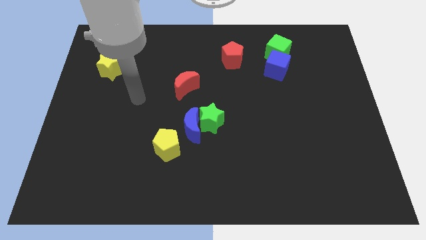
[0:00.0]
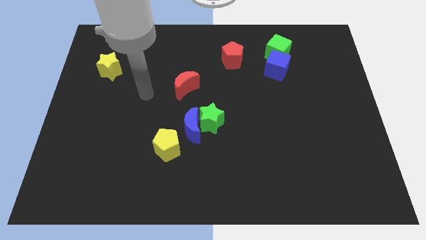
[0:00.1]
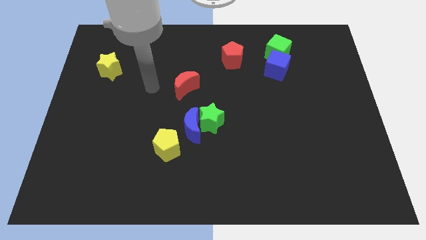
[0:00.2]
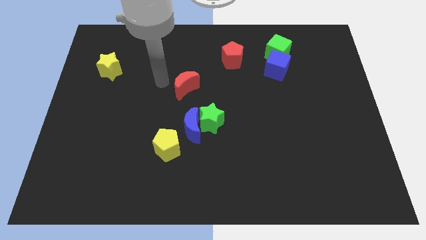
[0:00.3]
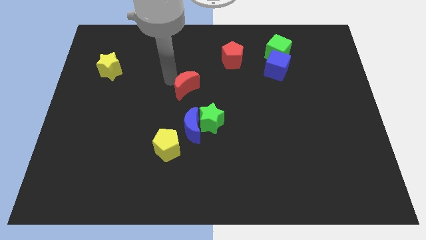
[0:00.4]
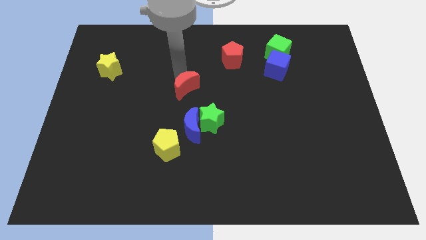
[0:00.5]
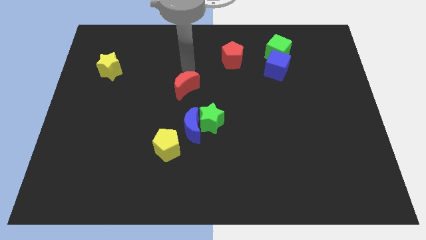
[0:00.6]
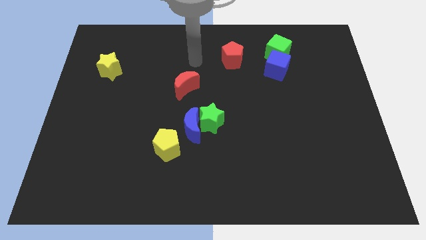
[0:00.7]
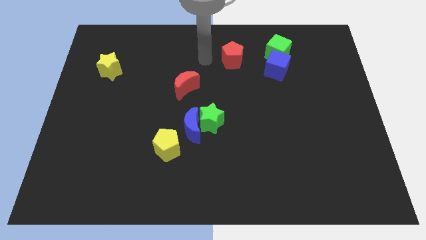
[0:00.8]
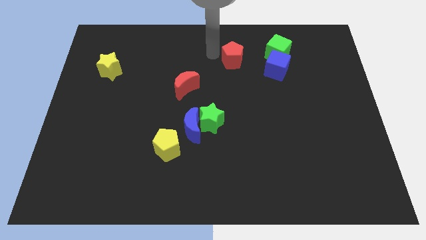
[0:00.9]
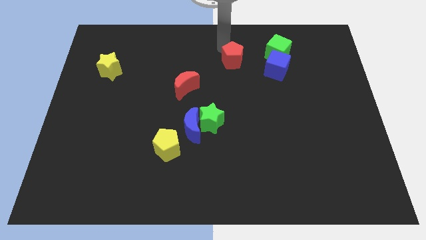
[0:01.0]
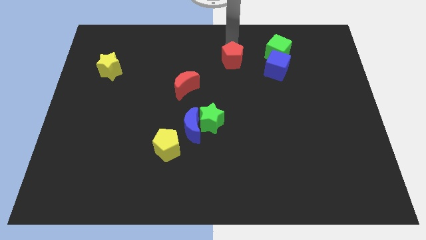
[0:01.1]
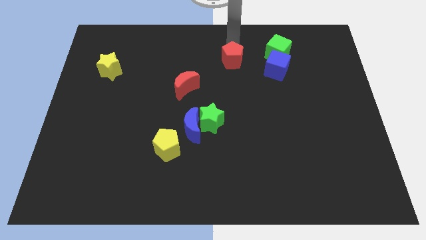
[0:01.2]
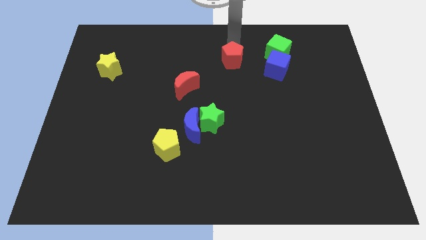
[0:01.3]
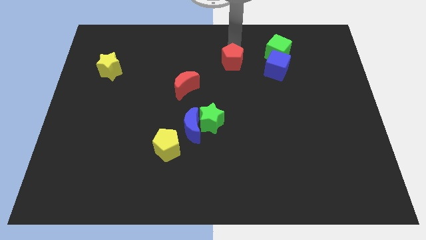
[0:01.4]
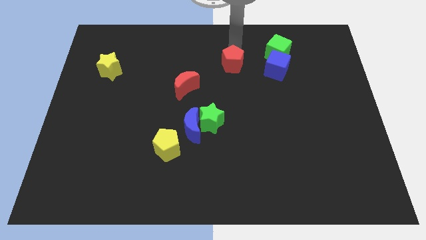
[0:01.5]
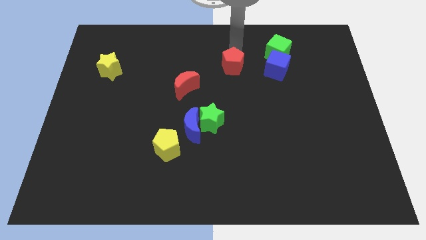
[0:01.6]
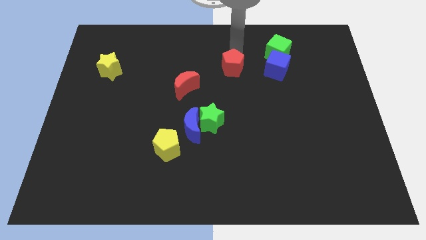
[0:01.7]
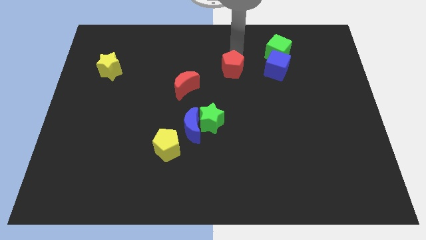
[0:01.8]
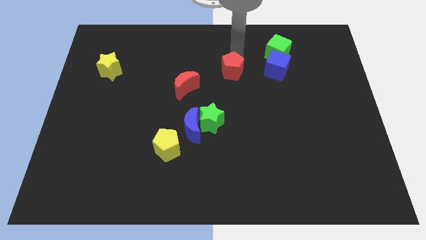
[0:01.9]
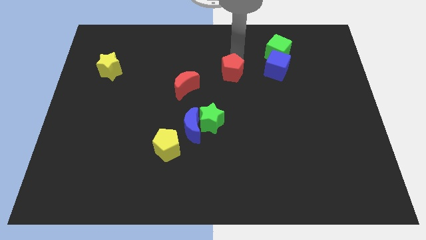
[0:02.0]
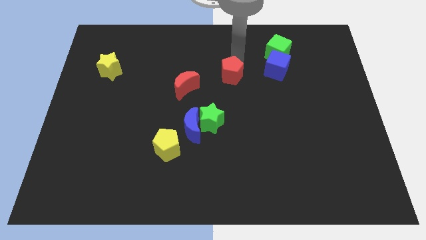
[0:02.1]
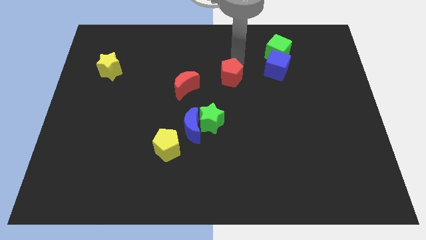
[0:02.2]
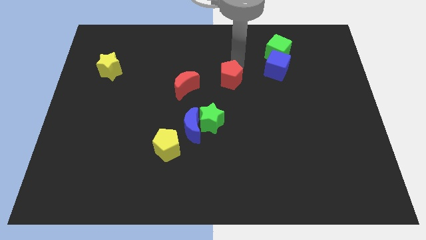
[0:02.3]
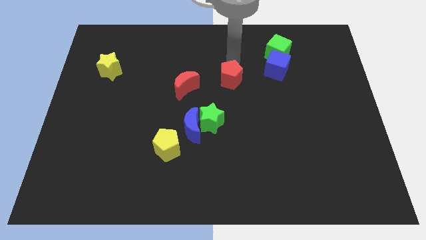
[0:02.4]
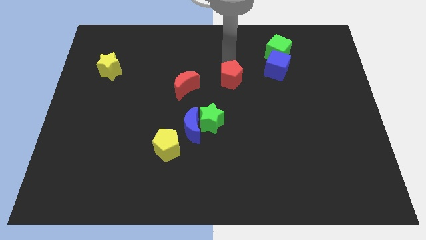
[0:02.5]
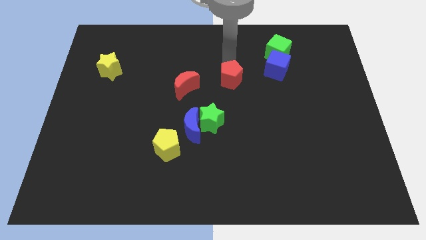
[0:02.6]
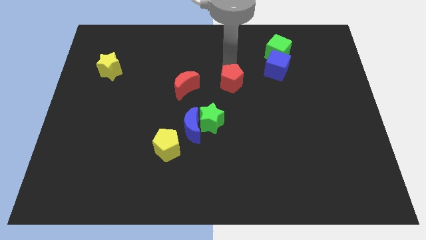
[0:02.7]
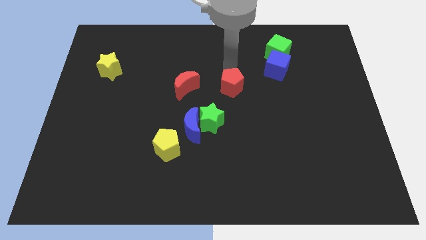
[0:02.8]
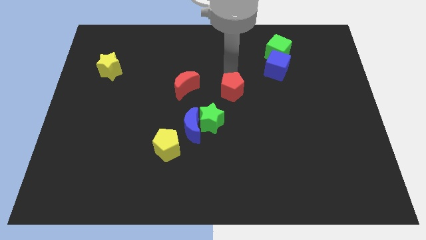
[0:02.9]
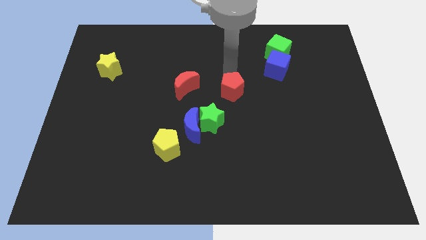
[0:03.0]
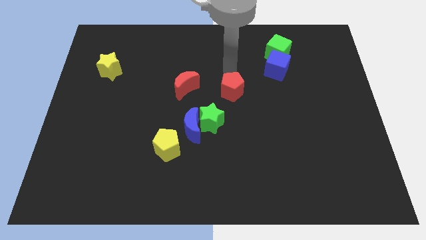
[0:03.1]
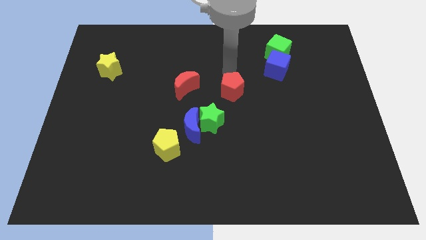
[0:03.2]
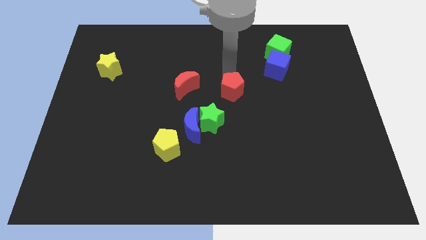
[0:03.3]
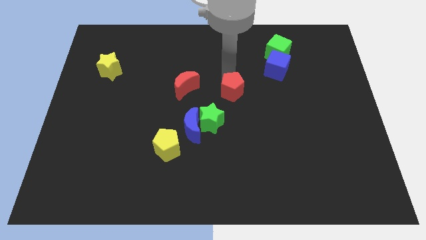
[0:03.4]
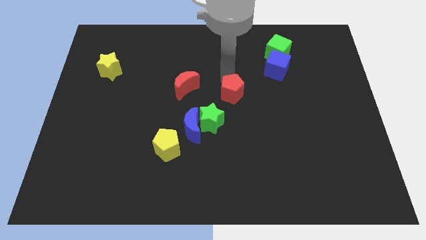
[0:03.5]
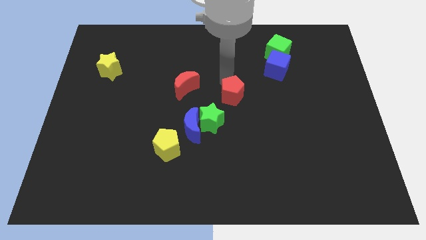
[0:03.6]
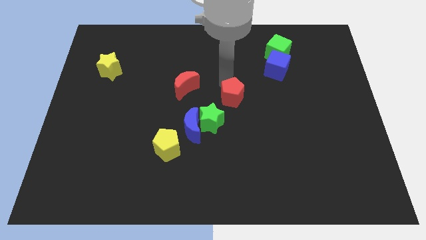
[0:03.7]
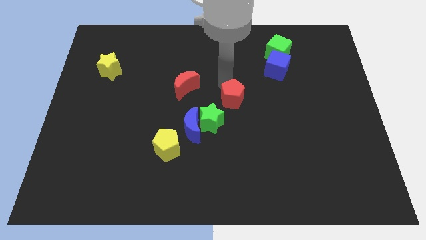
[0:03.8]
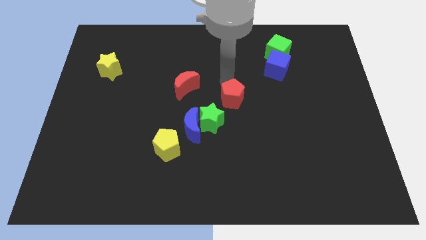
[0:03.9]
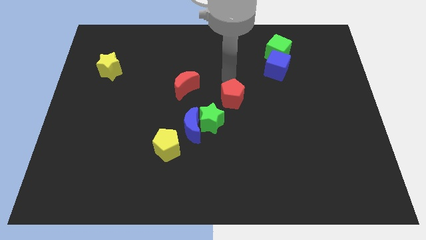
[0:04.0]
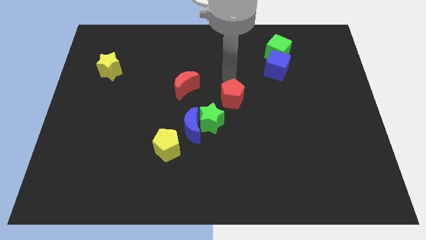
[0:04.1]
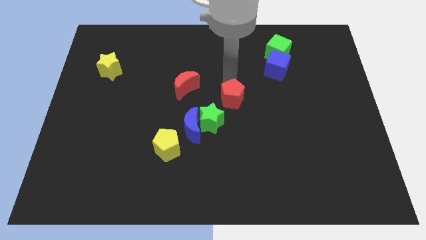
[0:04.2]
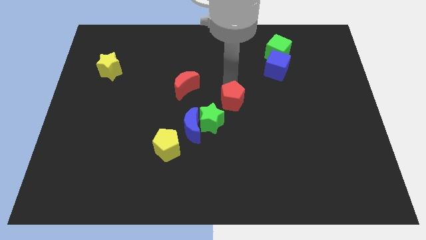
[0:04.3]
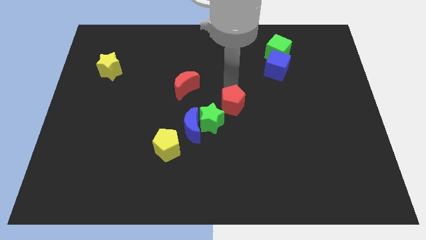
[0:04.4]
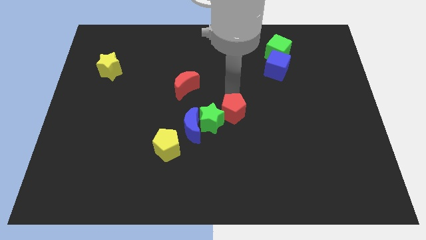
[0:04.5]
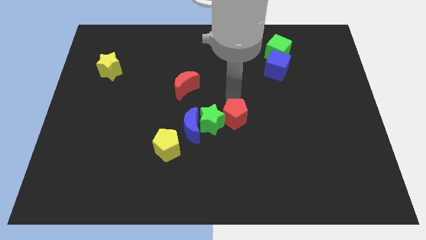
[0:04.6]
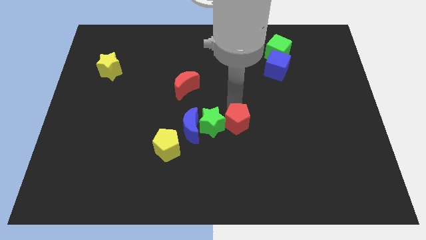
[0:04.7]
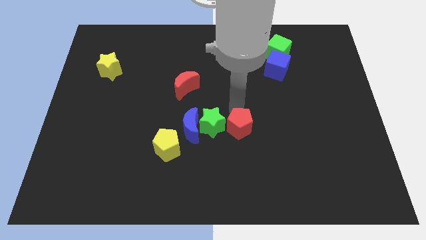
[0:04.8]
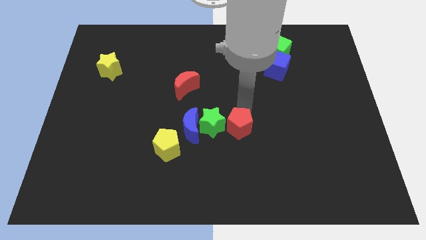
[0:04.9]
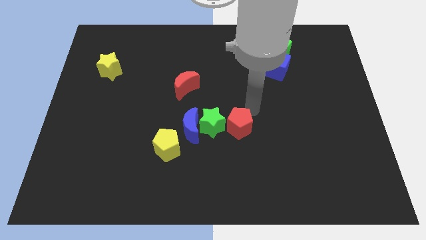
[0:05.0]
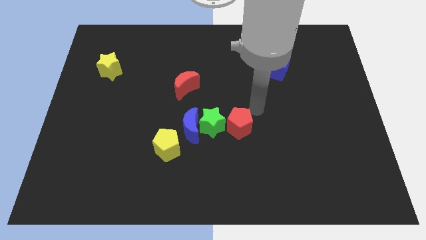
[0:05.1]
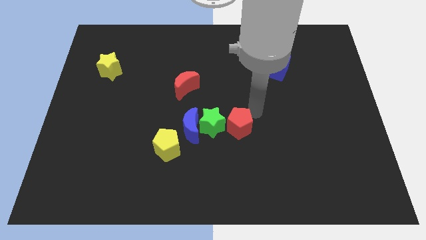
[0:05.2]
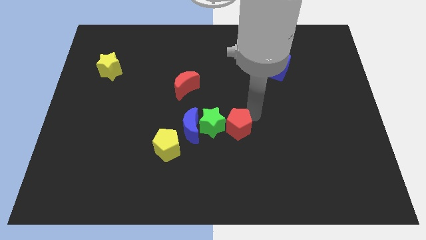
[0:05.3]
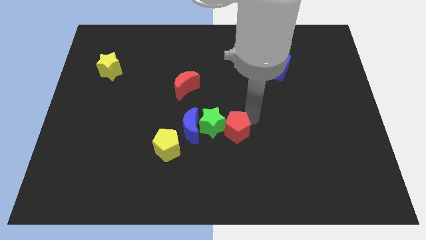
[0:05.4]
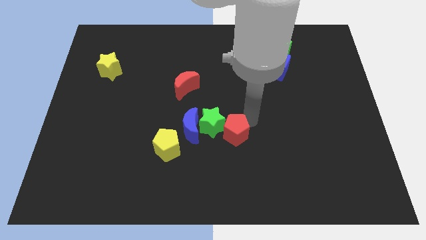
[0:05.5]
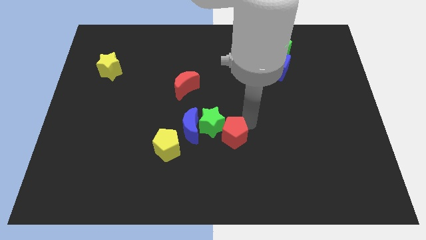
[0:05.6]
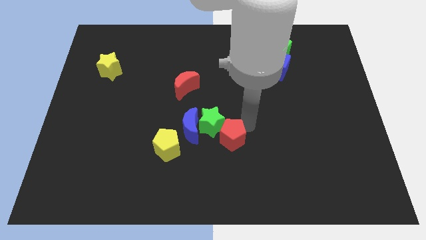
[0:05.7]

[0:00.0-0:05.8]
move the red pentagon diagonally down and to the right of the blue moon
